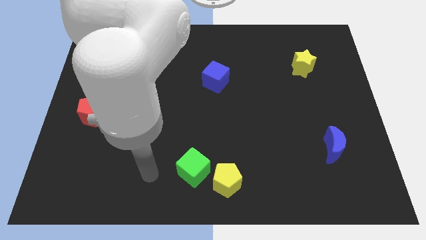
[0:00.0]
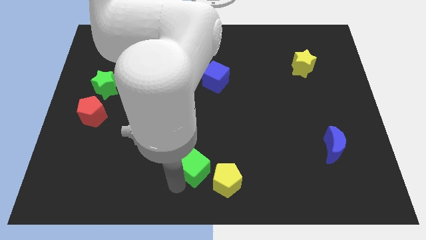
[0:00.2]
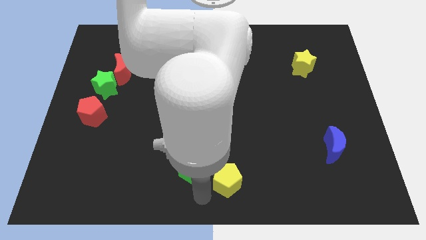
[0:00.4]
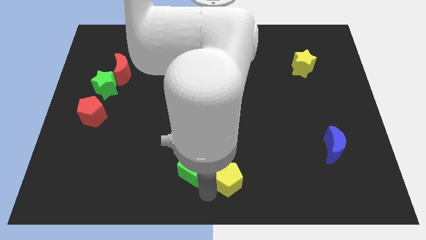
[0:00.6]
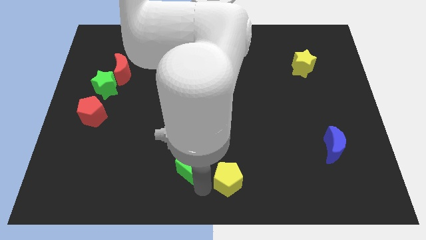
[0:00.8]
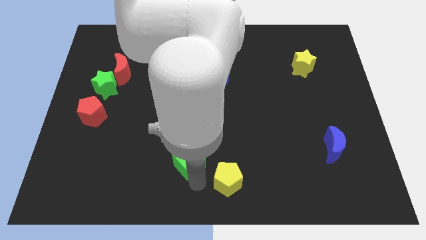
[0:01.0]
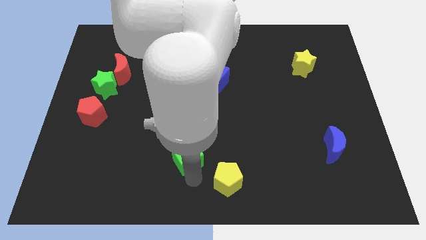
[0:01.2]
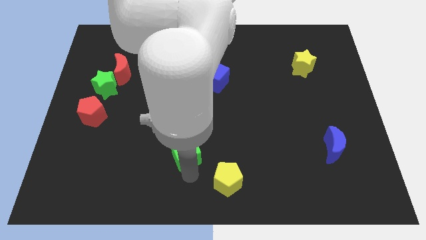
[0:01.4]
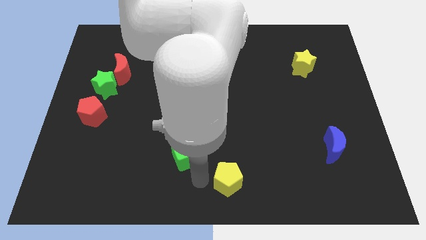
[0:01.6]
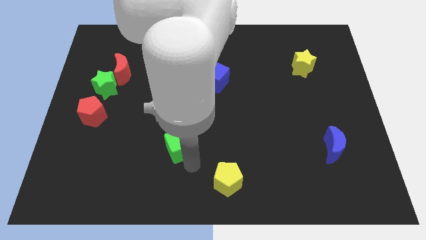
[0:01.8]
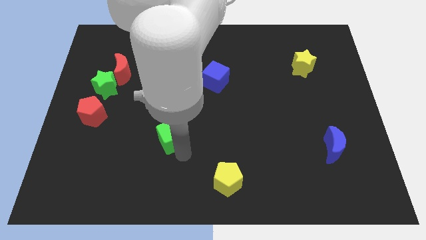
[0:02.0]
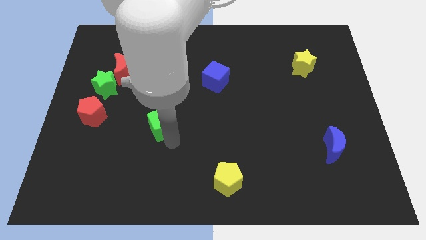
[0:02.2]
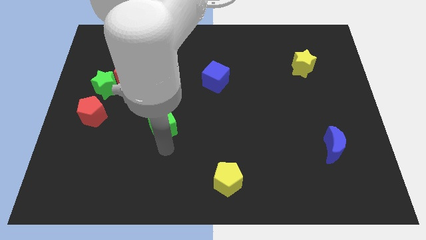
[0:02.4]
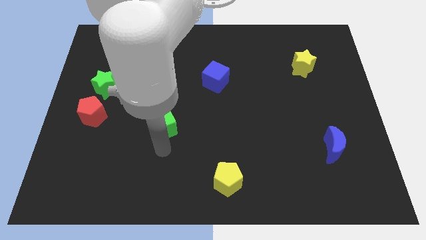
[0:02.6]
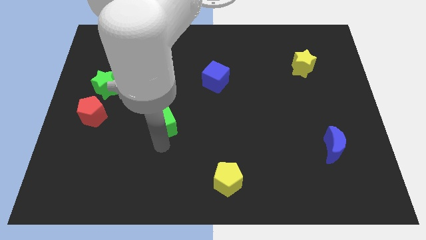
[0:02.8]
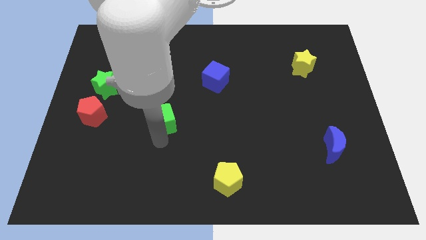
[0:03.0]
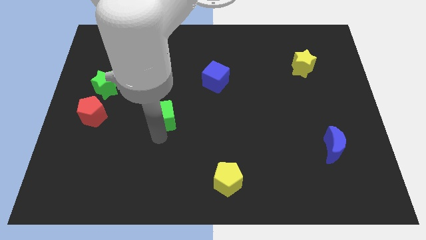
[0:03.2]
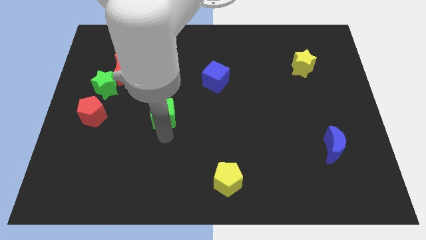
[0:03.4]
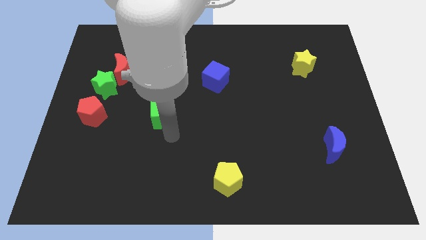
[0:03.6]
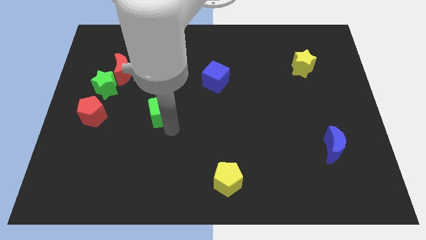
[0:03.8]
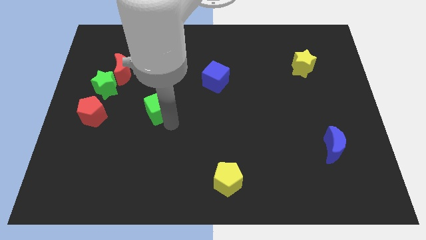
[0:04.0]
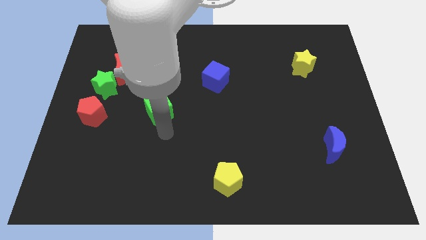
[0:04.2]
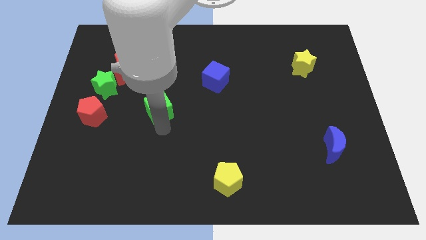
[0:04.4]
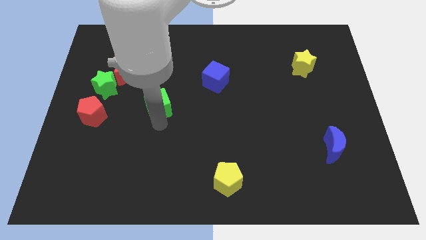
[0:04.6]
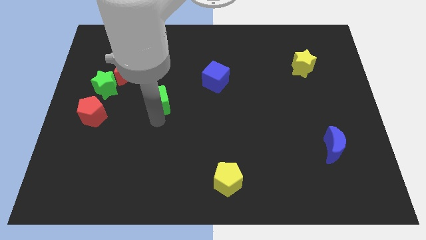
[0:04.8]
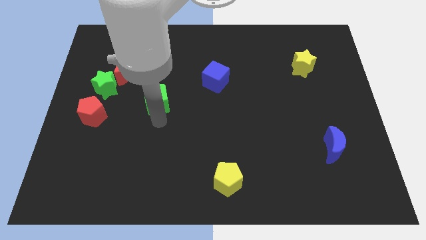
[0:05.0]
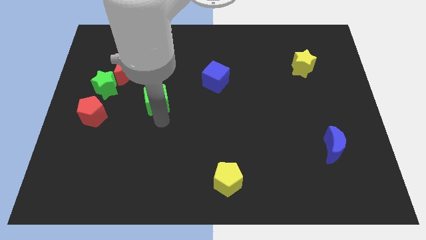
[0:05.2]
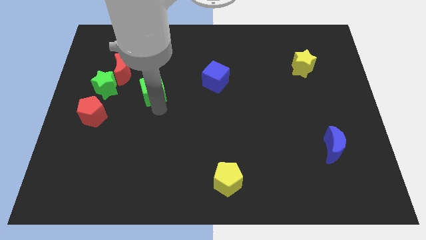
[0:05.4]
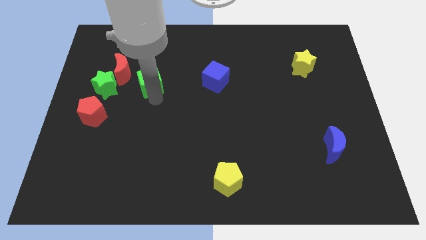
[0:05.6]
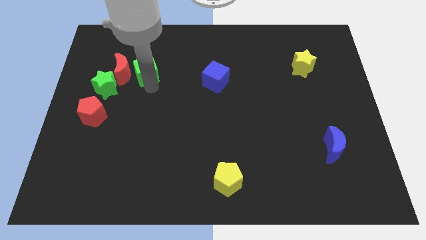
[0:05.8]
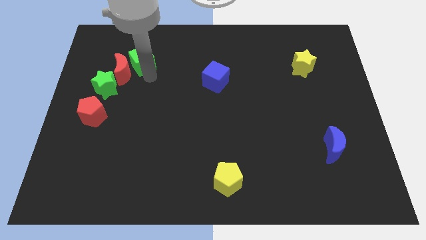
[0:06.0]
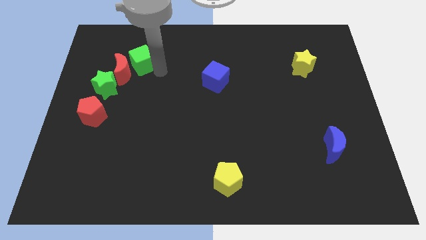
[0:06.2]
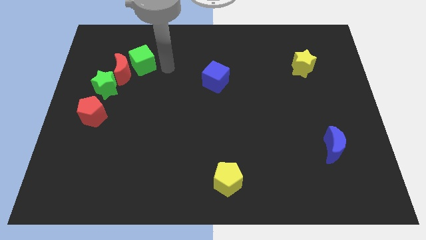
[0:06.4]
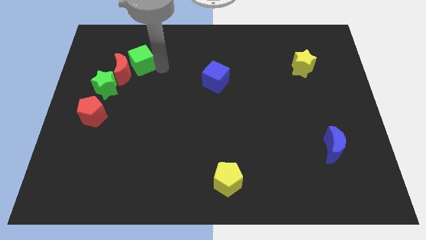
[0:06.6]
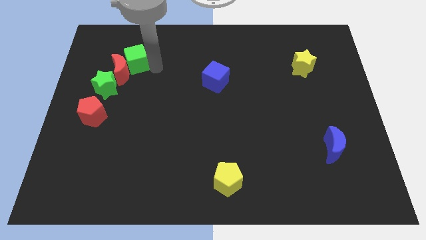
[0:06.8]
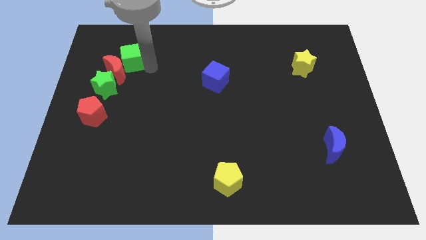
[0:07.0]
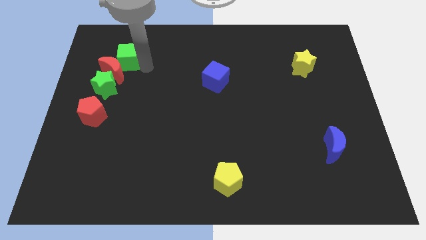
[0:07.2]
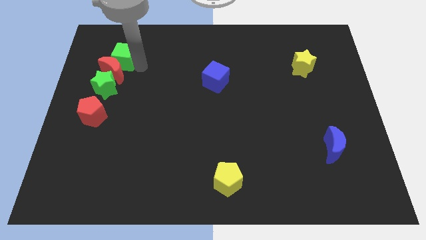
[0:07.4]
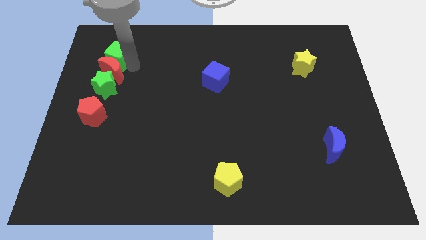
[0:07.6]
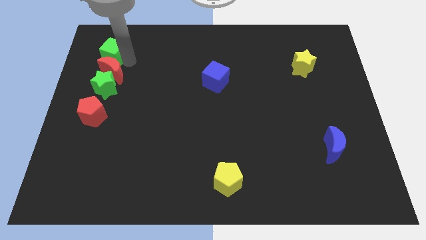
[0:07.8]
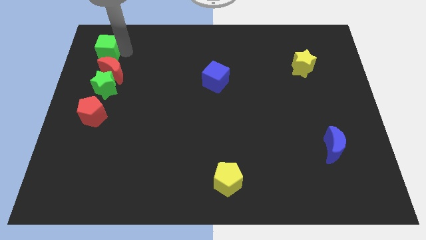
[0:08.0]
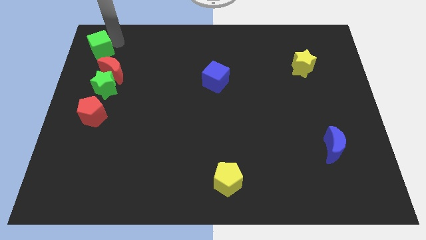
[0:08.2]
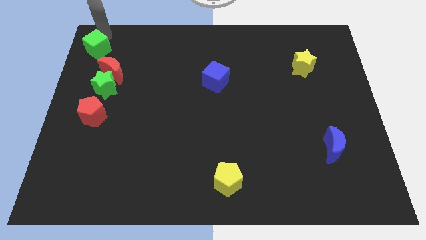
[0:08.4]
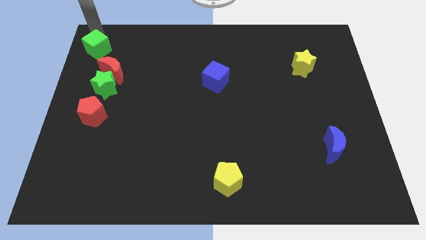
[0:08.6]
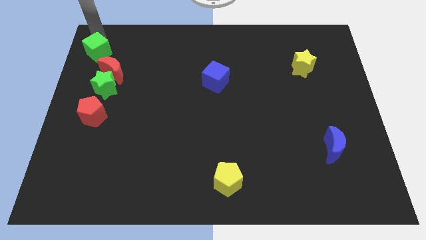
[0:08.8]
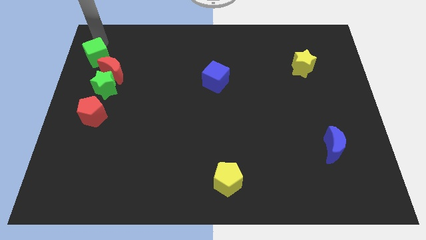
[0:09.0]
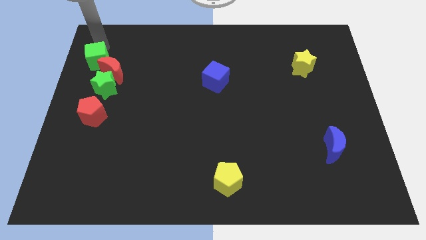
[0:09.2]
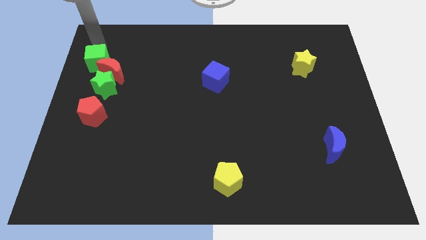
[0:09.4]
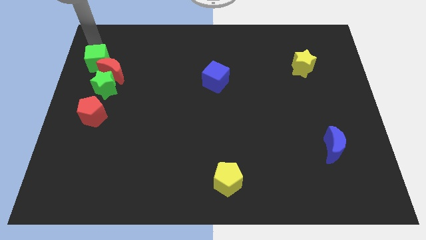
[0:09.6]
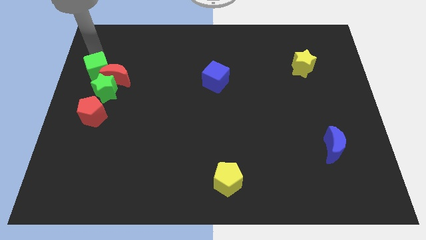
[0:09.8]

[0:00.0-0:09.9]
slide the green cube to the top side of the red pentagon

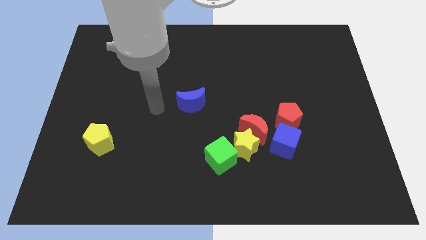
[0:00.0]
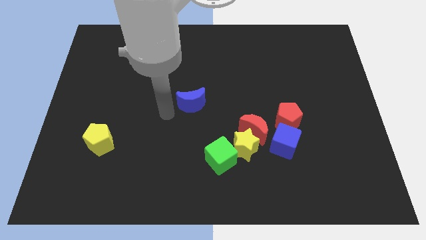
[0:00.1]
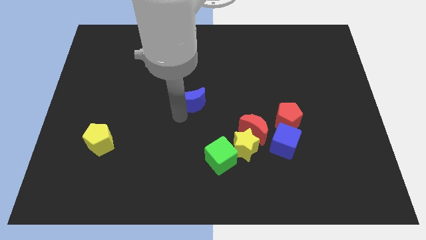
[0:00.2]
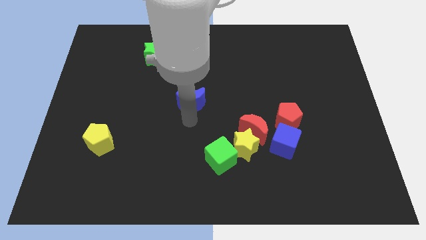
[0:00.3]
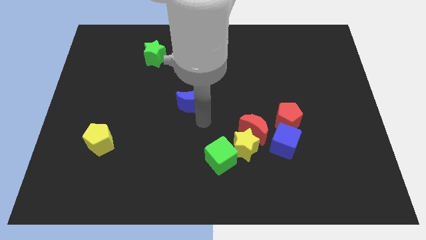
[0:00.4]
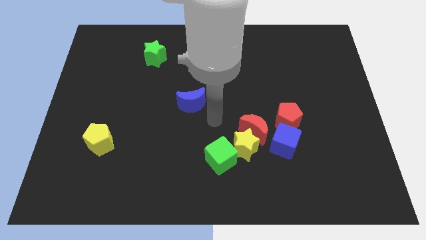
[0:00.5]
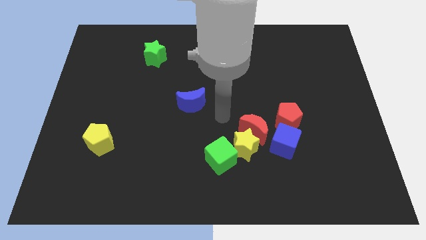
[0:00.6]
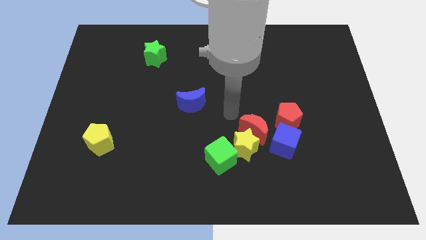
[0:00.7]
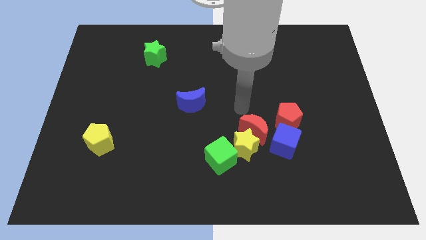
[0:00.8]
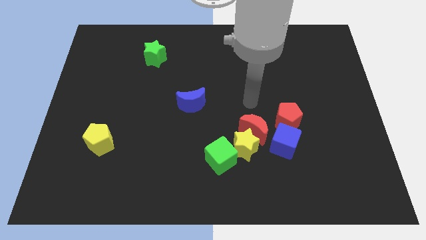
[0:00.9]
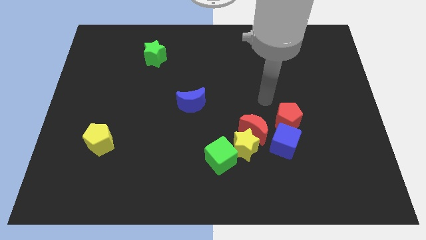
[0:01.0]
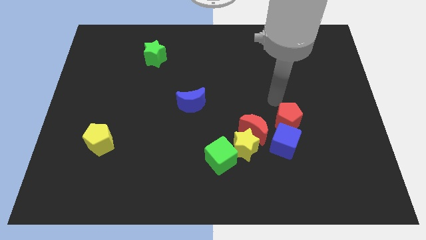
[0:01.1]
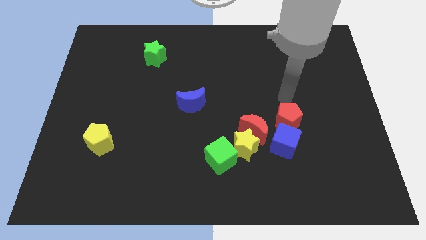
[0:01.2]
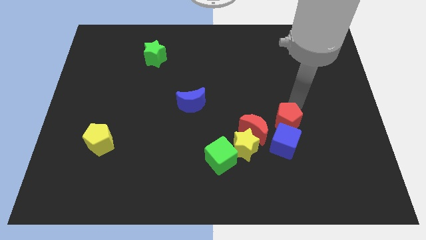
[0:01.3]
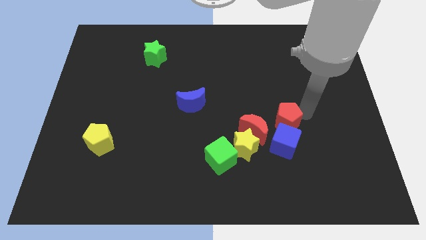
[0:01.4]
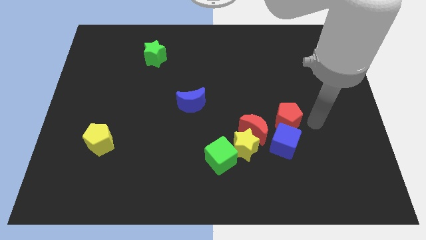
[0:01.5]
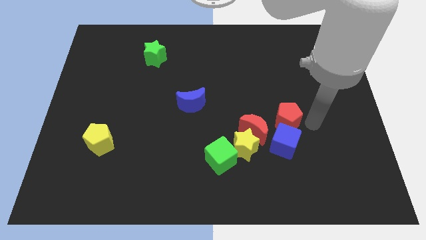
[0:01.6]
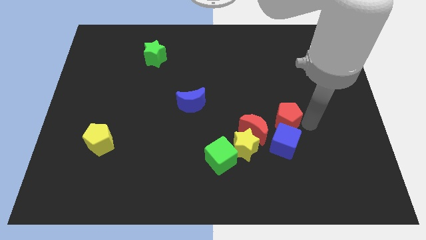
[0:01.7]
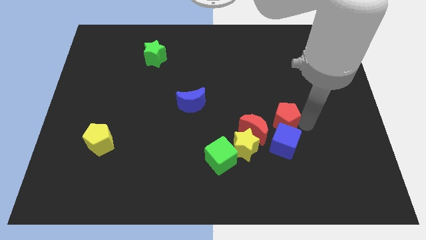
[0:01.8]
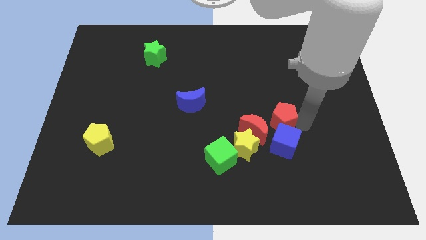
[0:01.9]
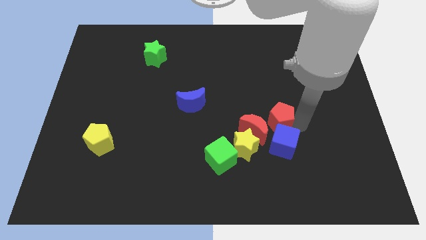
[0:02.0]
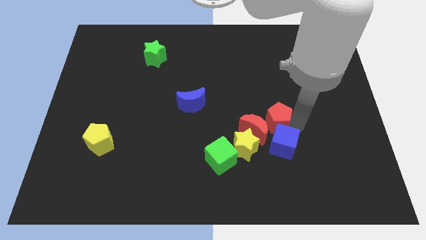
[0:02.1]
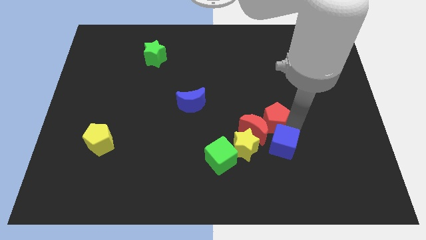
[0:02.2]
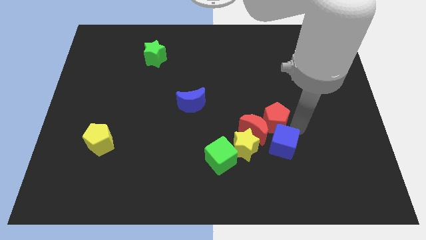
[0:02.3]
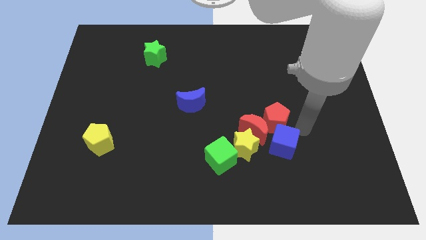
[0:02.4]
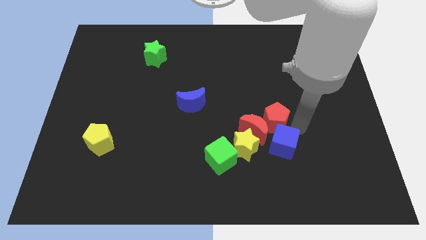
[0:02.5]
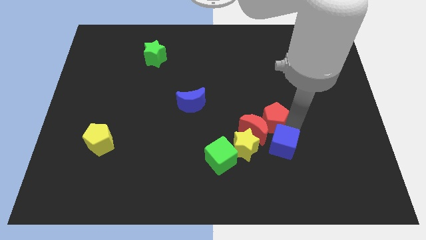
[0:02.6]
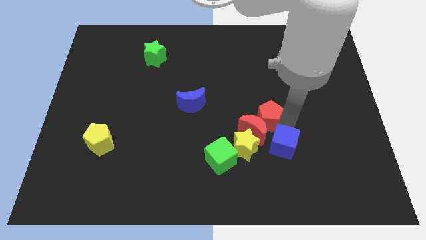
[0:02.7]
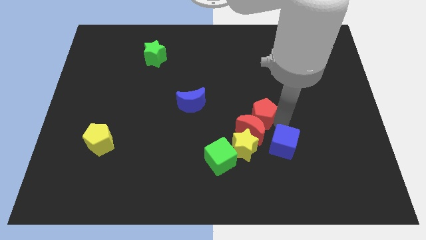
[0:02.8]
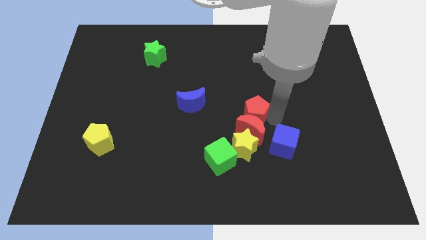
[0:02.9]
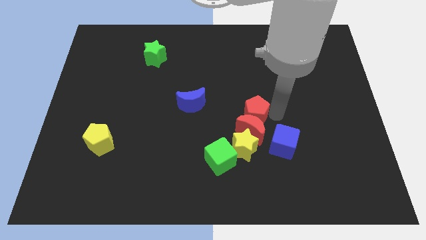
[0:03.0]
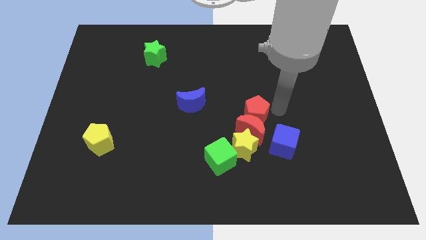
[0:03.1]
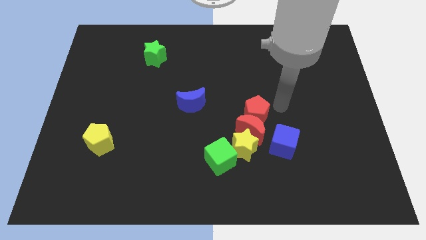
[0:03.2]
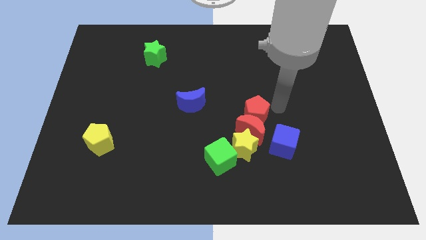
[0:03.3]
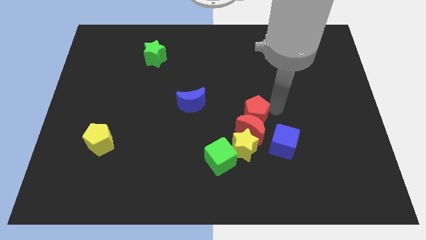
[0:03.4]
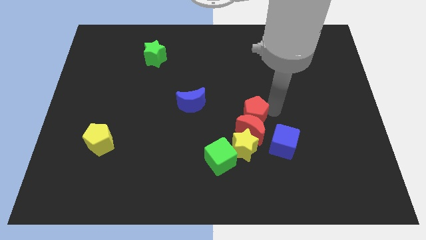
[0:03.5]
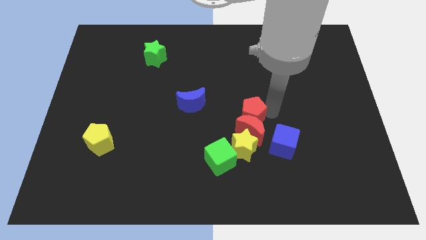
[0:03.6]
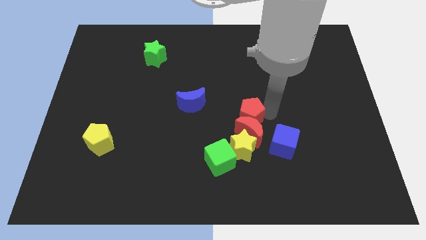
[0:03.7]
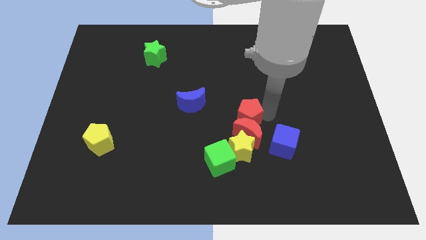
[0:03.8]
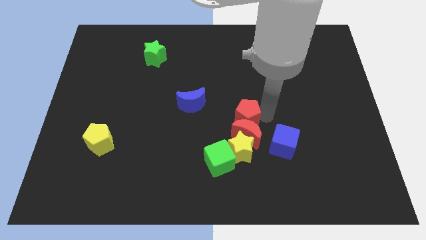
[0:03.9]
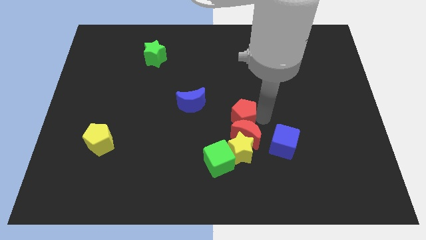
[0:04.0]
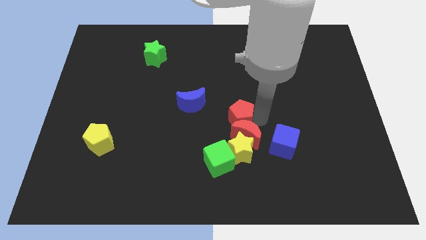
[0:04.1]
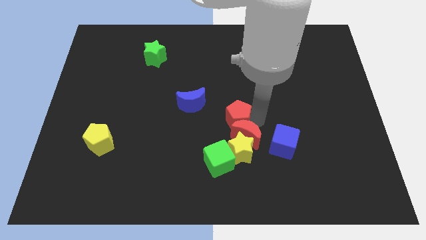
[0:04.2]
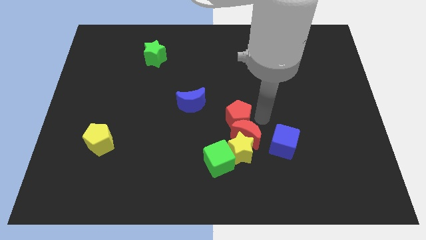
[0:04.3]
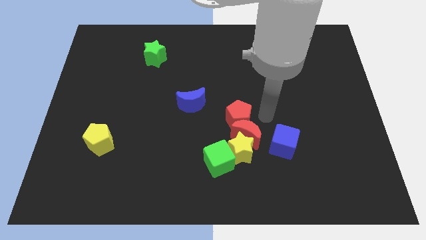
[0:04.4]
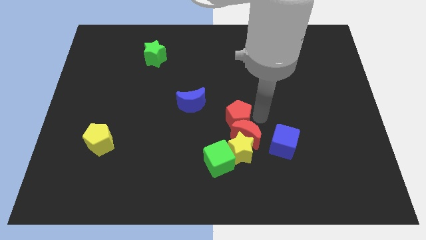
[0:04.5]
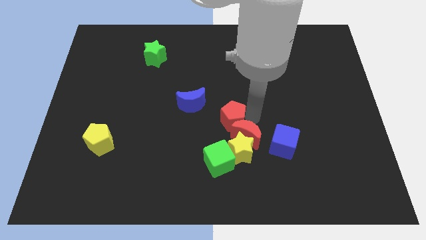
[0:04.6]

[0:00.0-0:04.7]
put the red pentagon diagonally down and to the right of the blue moon
